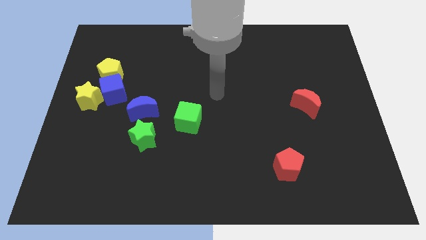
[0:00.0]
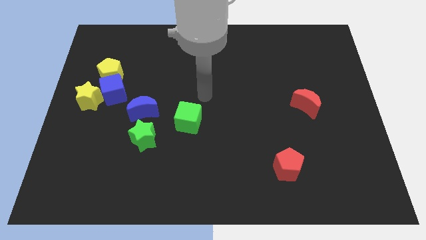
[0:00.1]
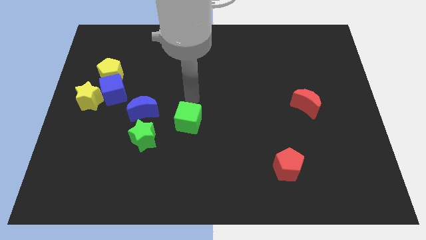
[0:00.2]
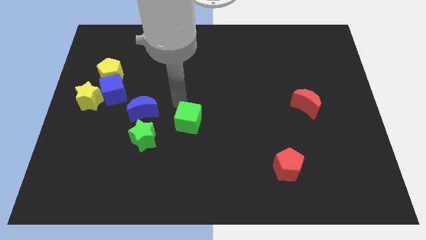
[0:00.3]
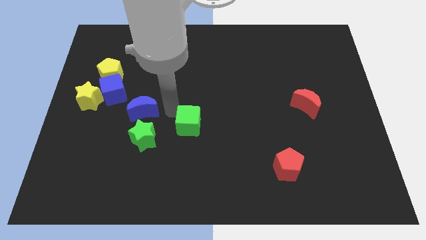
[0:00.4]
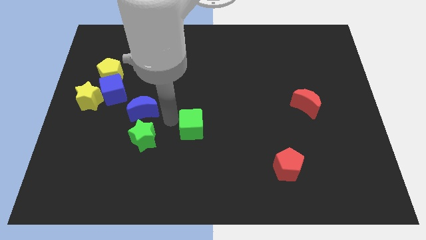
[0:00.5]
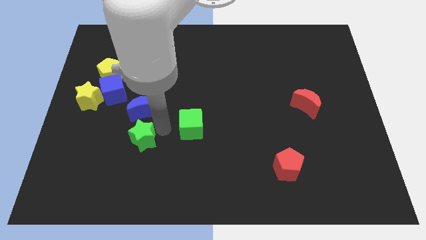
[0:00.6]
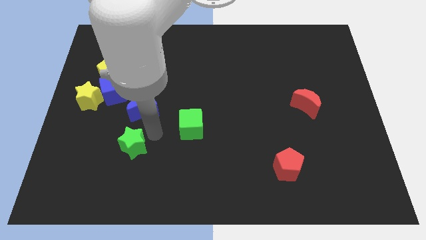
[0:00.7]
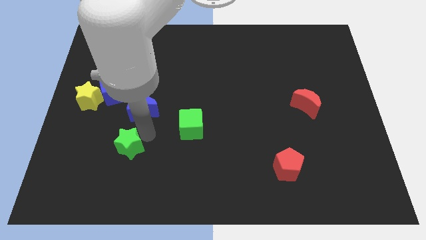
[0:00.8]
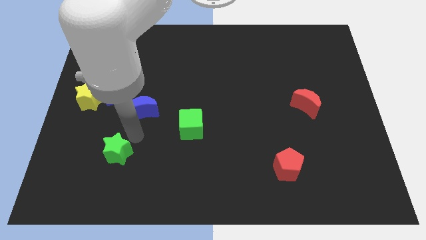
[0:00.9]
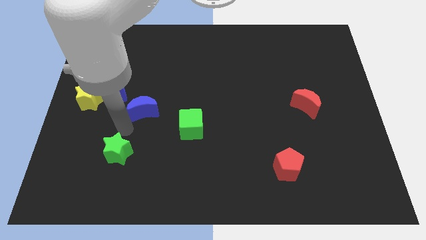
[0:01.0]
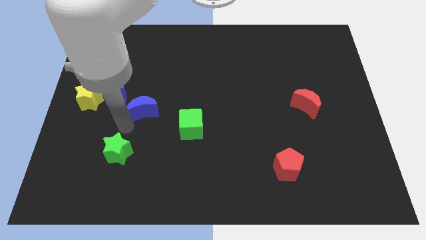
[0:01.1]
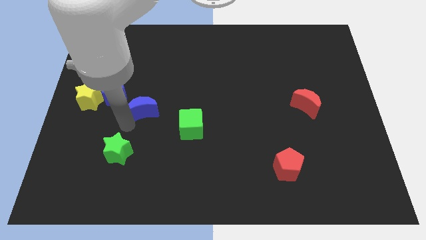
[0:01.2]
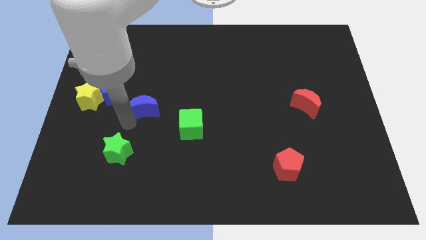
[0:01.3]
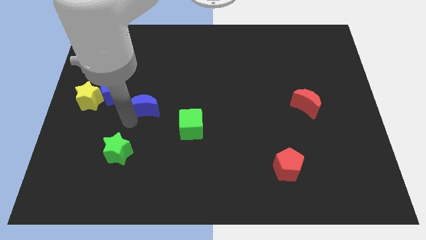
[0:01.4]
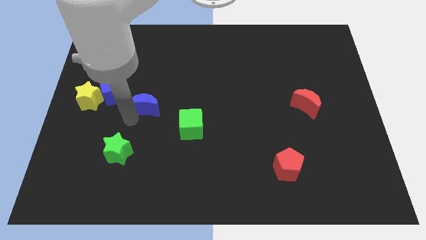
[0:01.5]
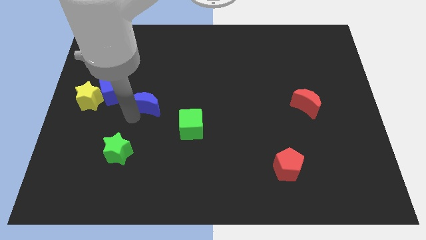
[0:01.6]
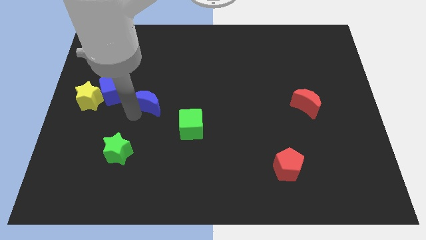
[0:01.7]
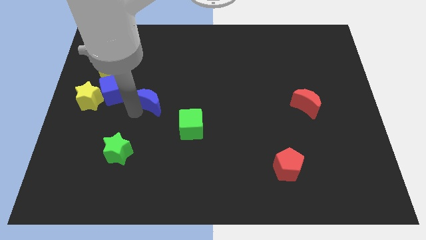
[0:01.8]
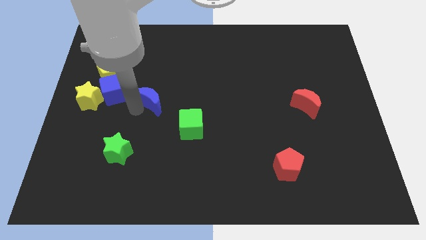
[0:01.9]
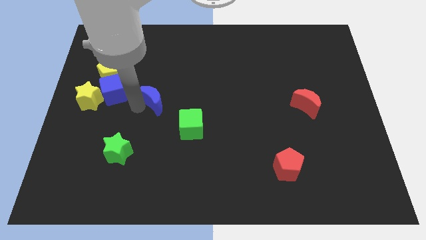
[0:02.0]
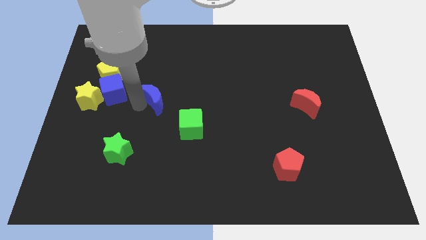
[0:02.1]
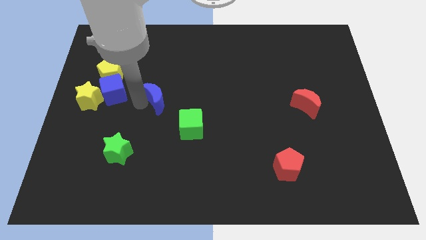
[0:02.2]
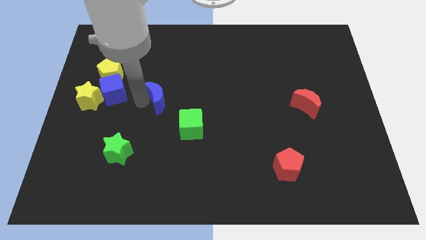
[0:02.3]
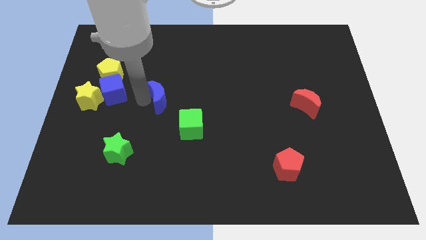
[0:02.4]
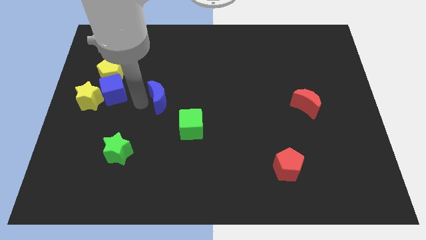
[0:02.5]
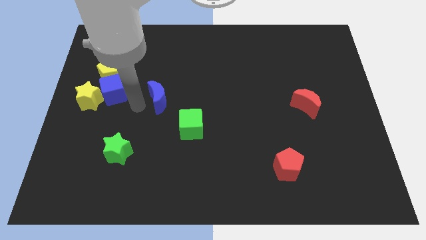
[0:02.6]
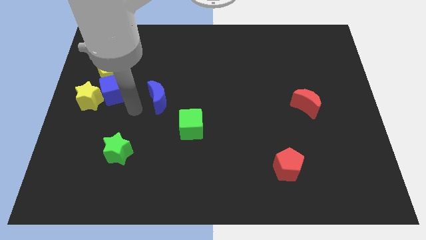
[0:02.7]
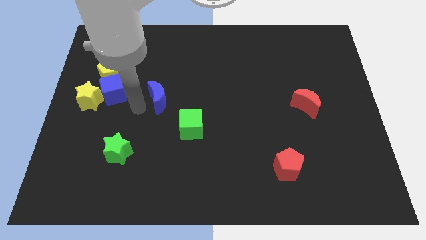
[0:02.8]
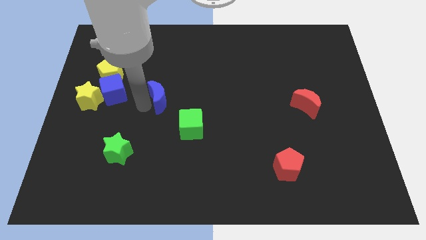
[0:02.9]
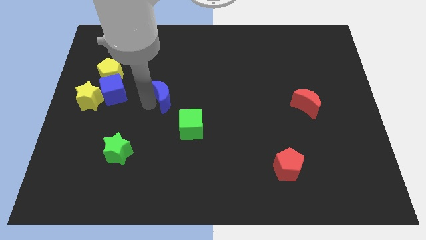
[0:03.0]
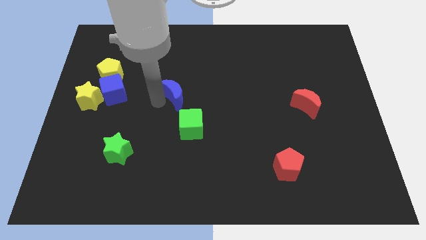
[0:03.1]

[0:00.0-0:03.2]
push the blue moon a bit upwards and then right

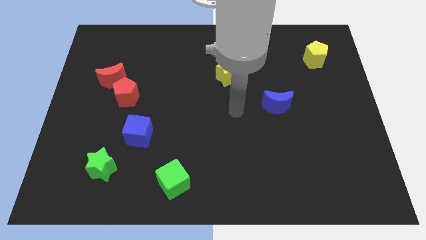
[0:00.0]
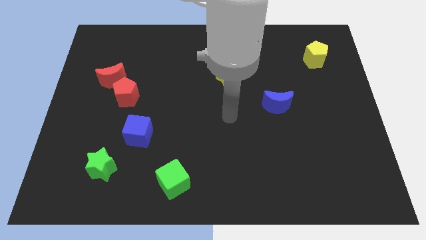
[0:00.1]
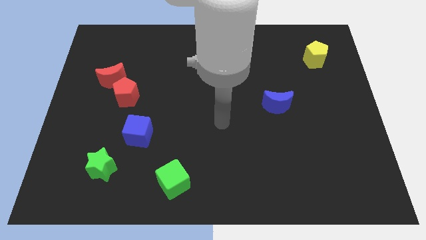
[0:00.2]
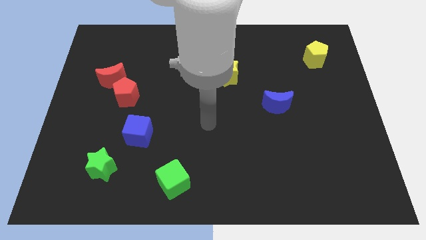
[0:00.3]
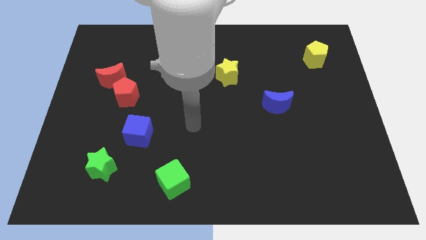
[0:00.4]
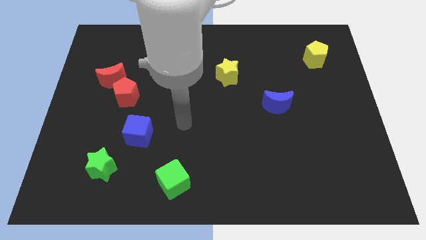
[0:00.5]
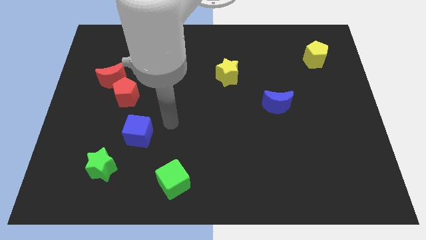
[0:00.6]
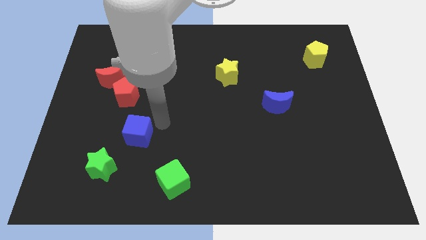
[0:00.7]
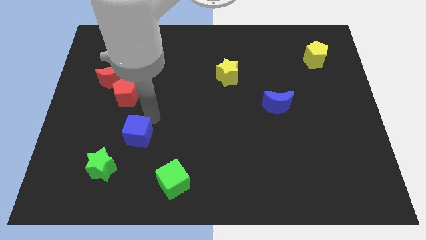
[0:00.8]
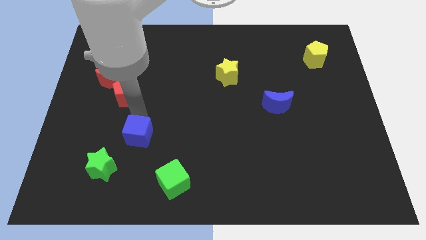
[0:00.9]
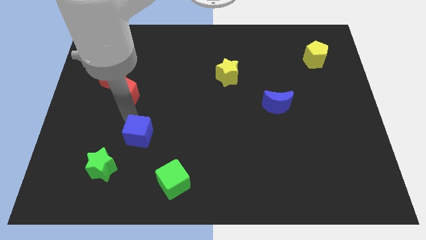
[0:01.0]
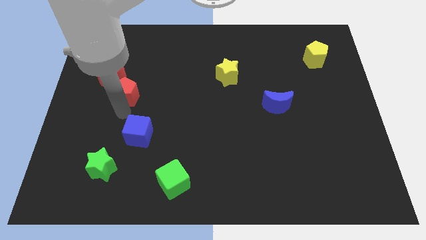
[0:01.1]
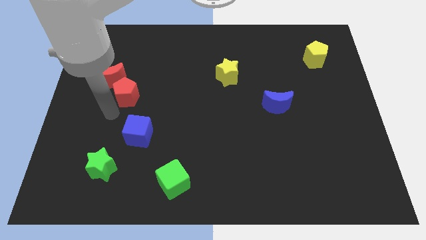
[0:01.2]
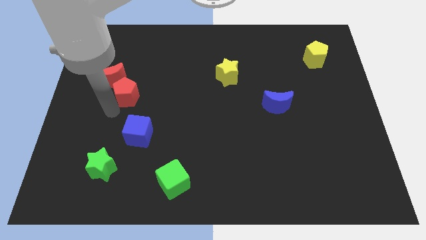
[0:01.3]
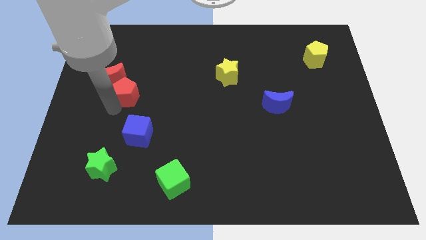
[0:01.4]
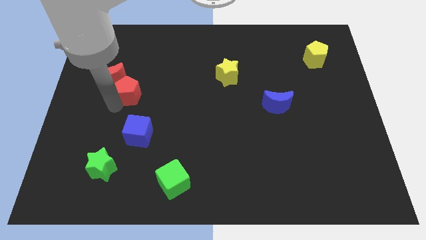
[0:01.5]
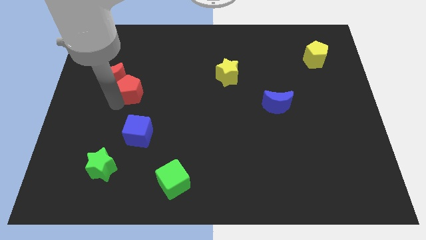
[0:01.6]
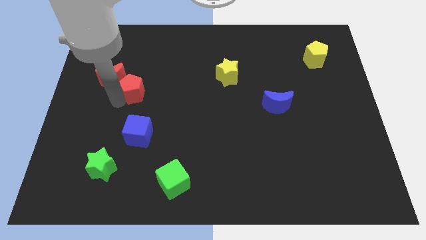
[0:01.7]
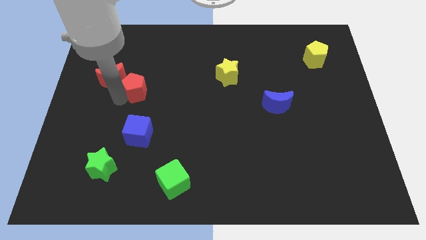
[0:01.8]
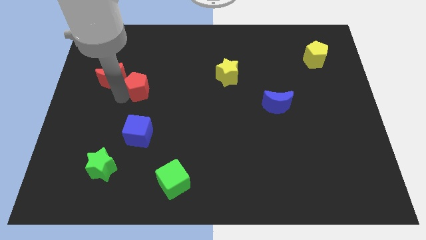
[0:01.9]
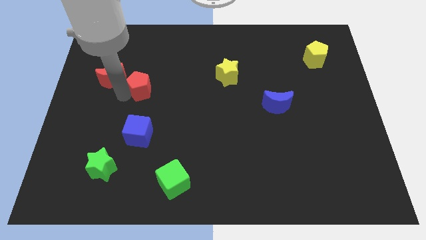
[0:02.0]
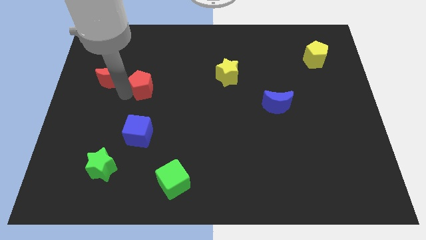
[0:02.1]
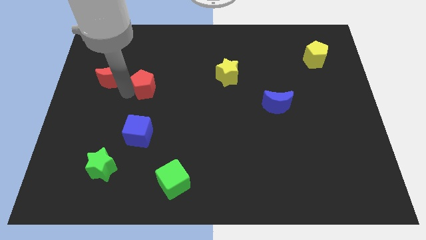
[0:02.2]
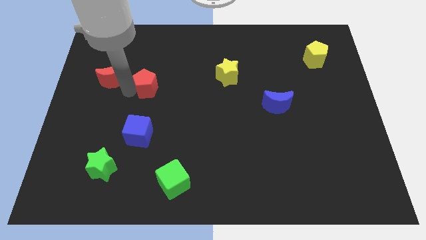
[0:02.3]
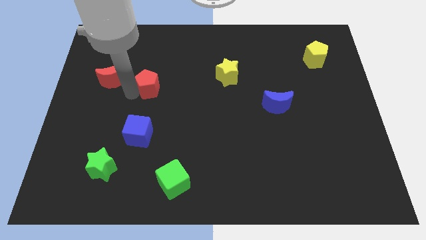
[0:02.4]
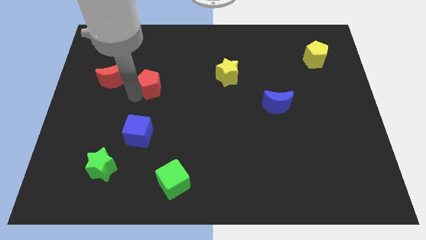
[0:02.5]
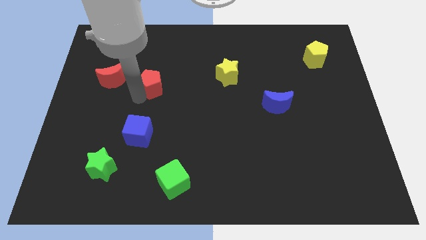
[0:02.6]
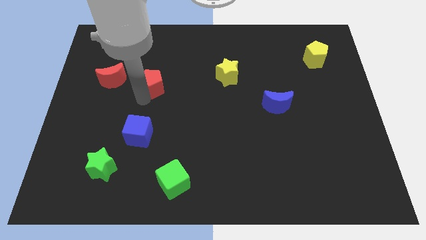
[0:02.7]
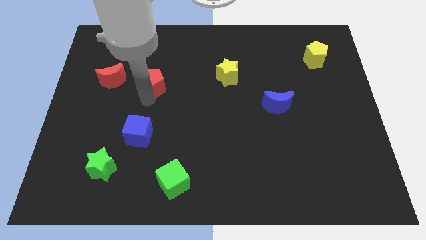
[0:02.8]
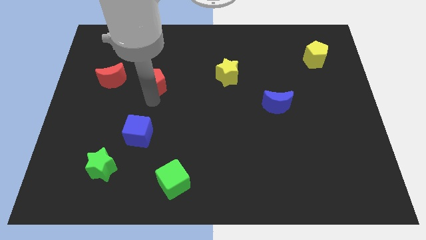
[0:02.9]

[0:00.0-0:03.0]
move the red pentagon somewhat diagonally up and to the right

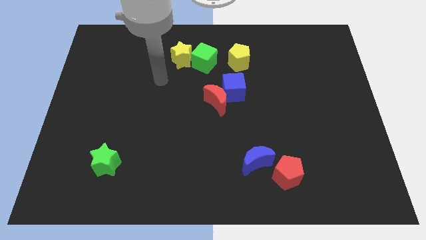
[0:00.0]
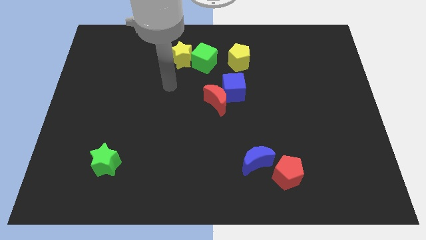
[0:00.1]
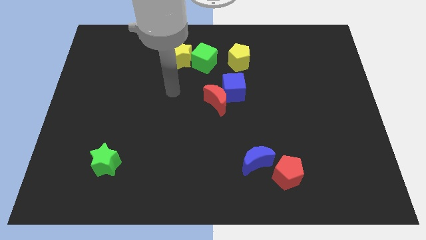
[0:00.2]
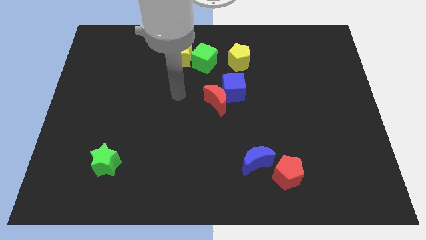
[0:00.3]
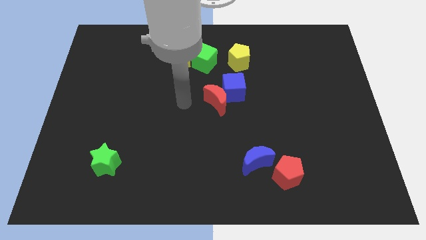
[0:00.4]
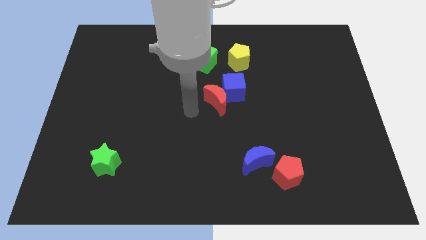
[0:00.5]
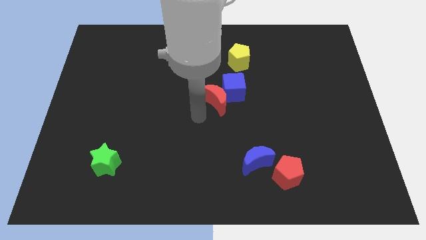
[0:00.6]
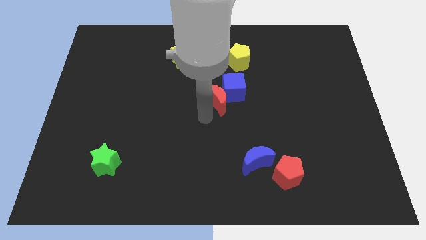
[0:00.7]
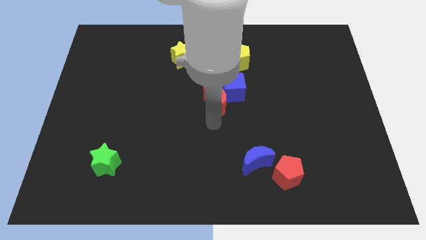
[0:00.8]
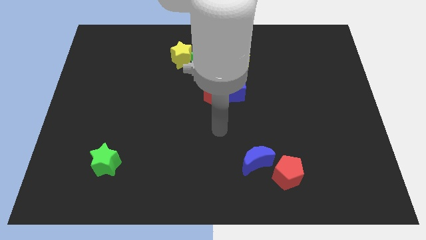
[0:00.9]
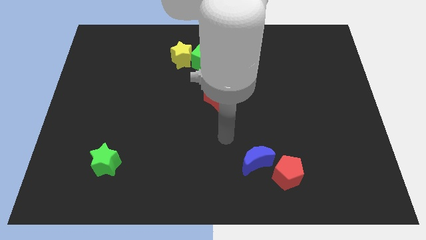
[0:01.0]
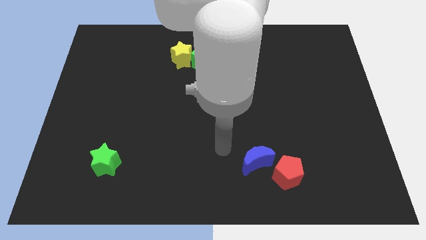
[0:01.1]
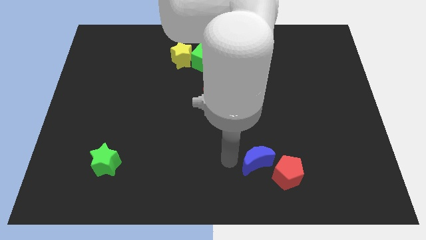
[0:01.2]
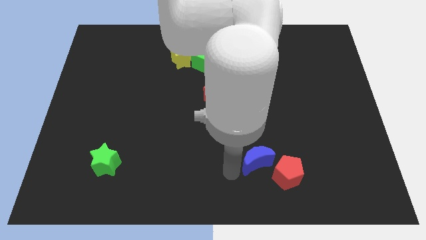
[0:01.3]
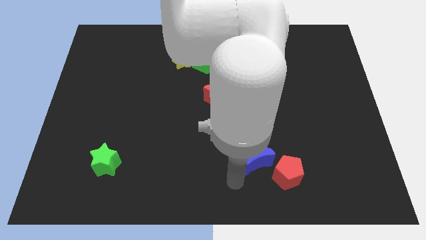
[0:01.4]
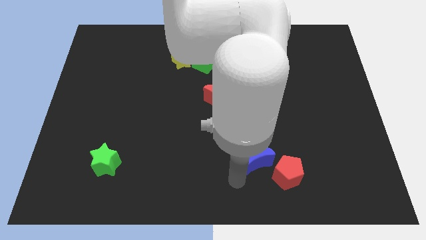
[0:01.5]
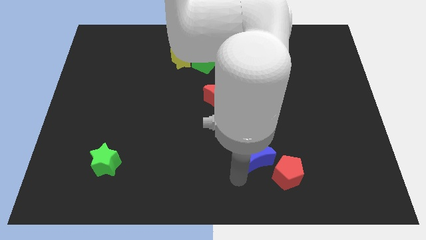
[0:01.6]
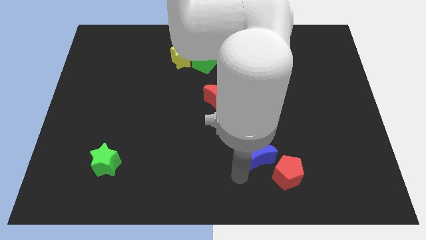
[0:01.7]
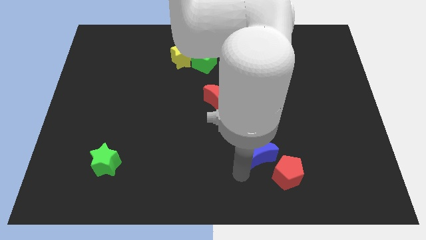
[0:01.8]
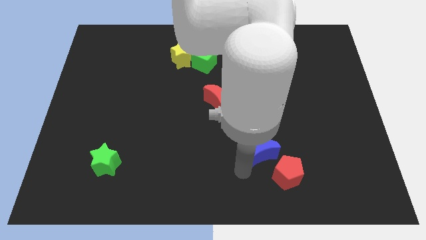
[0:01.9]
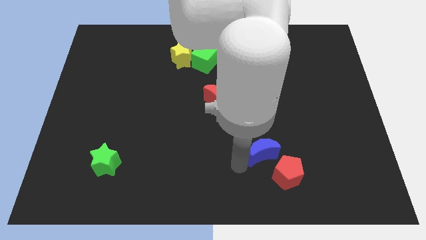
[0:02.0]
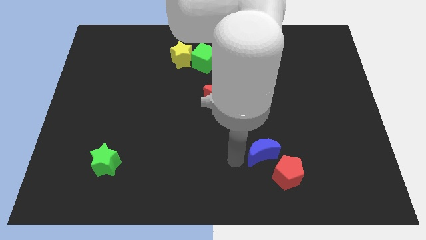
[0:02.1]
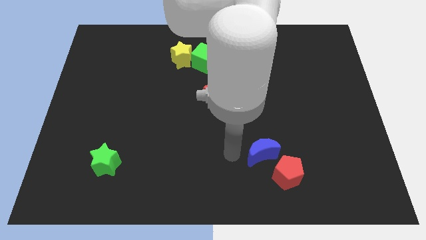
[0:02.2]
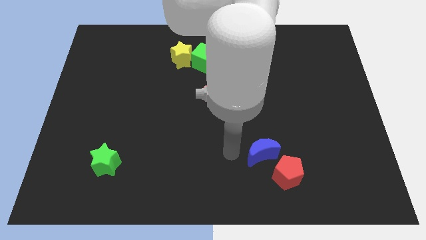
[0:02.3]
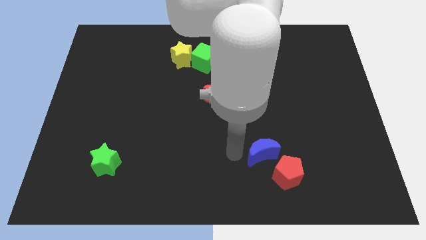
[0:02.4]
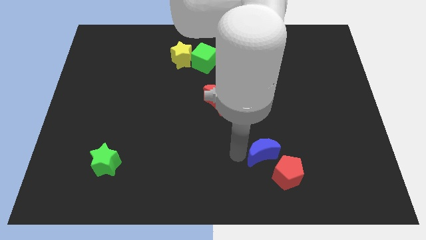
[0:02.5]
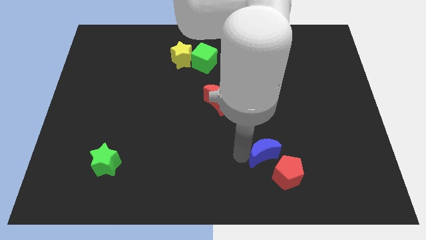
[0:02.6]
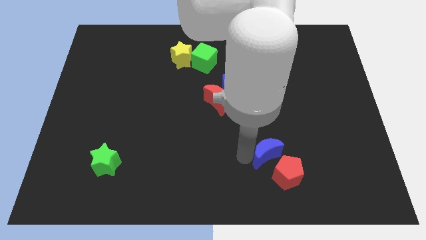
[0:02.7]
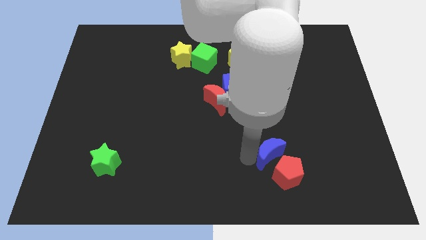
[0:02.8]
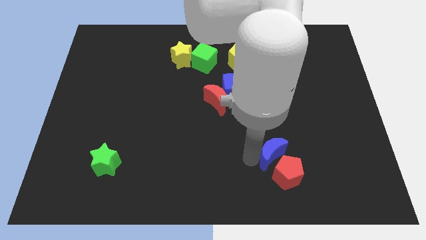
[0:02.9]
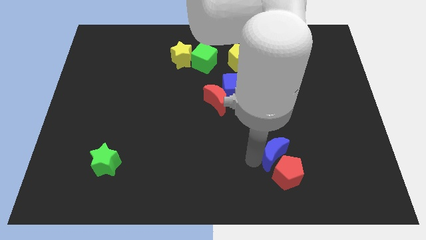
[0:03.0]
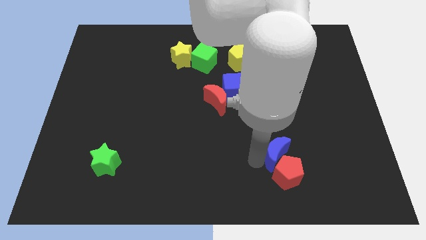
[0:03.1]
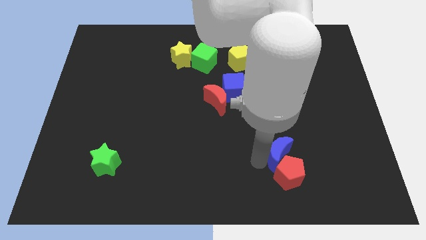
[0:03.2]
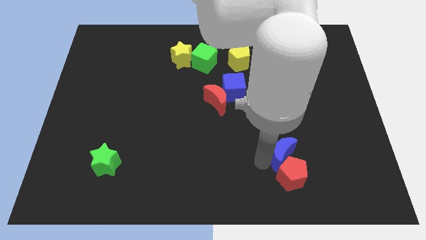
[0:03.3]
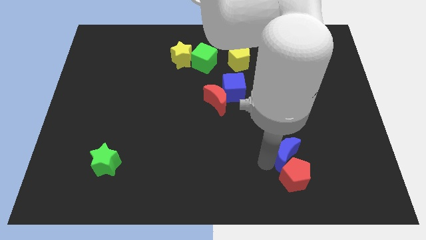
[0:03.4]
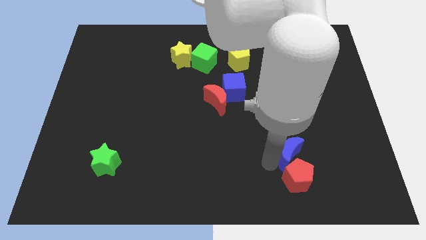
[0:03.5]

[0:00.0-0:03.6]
move the blue moon to the right a little
